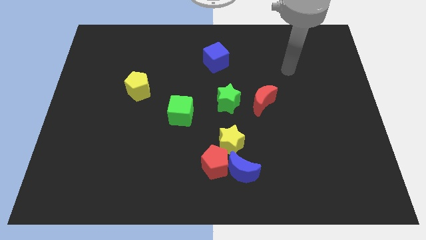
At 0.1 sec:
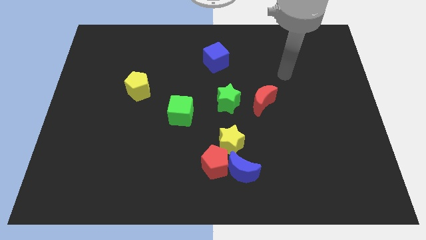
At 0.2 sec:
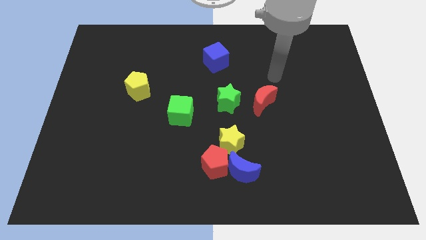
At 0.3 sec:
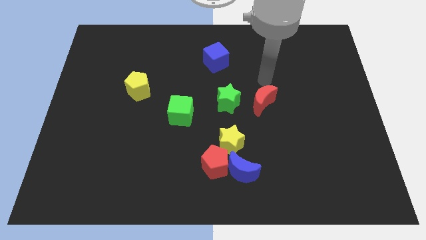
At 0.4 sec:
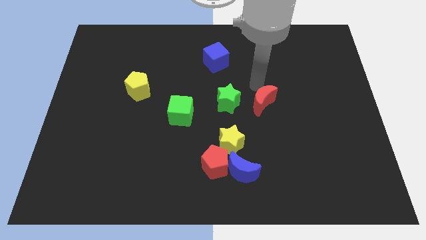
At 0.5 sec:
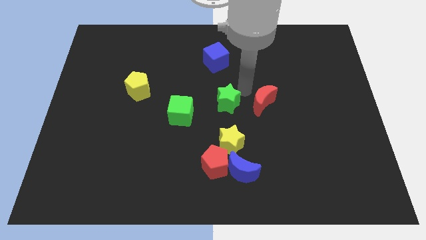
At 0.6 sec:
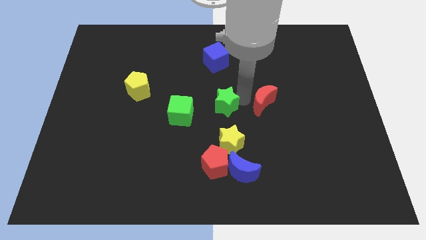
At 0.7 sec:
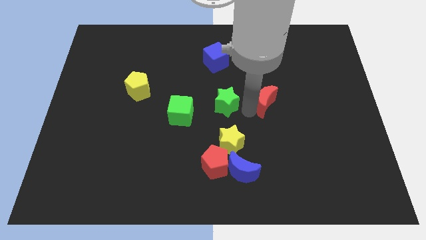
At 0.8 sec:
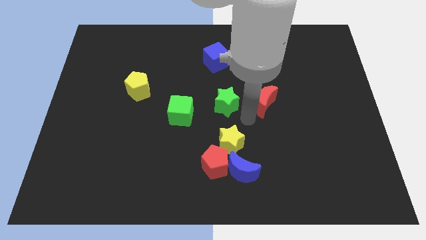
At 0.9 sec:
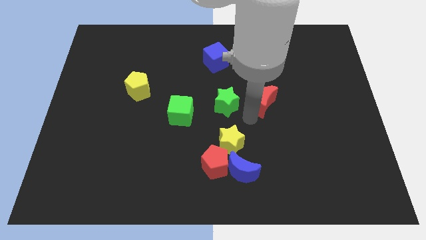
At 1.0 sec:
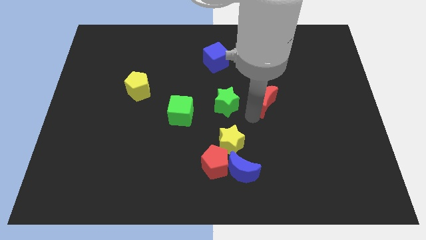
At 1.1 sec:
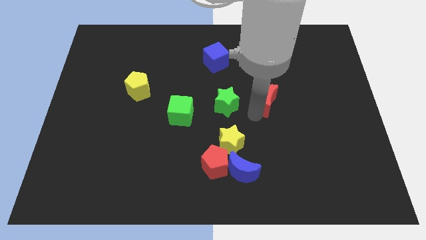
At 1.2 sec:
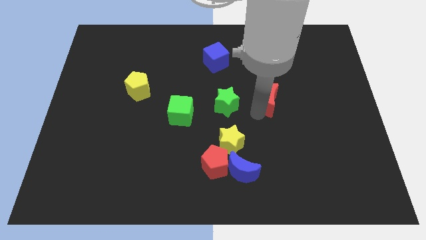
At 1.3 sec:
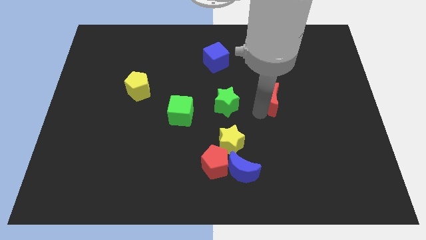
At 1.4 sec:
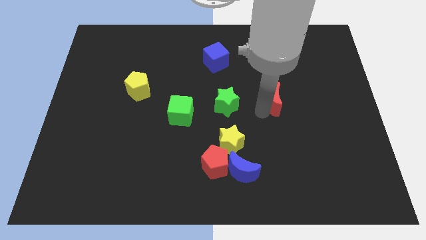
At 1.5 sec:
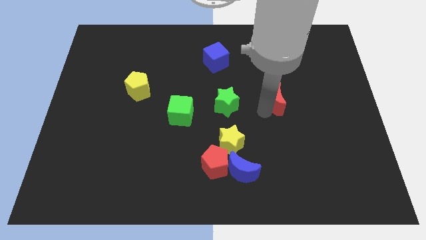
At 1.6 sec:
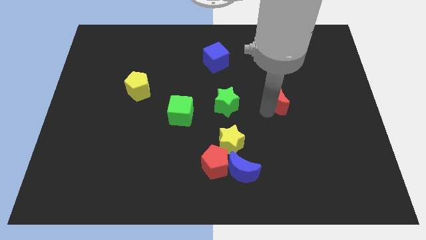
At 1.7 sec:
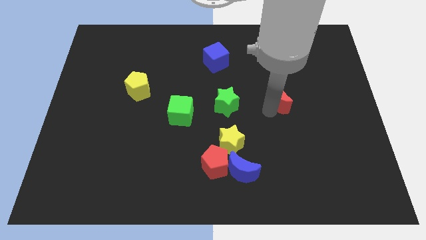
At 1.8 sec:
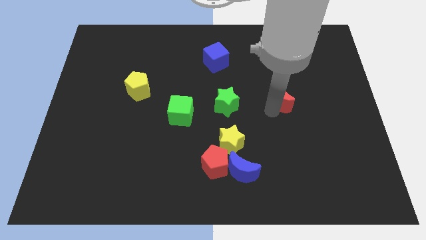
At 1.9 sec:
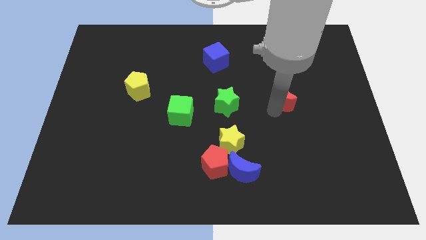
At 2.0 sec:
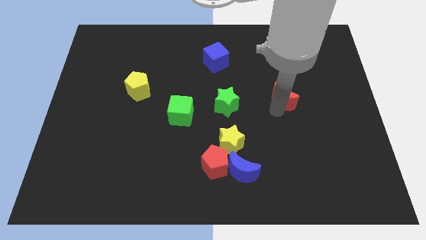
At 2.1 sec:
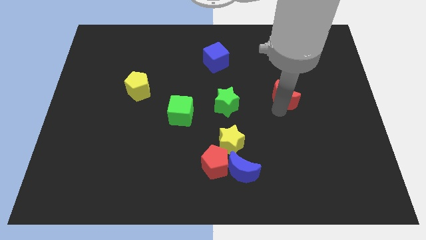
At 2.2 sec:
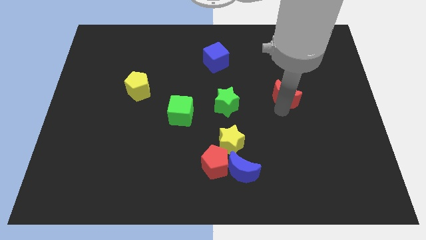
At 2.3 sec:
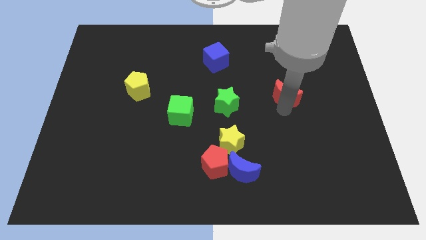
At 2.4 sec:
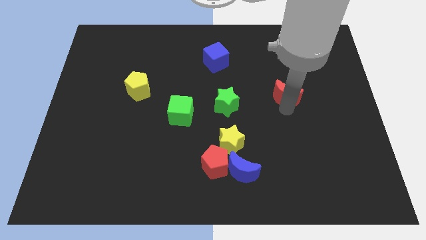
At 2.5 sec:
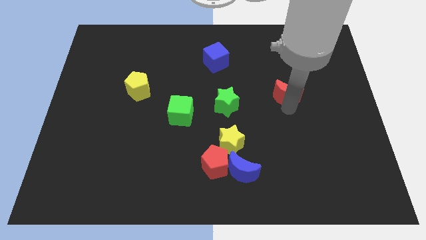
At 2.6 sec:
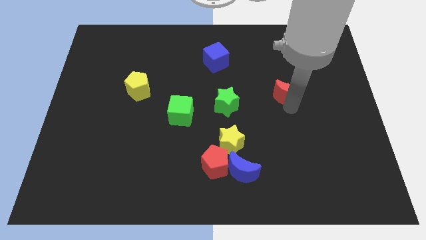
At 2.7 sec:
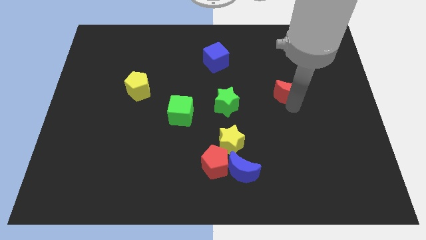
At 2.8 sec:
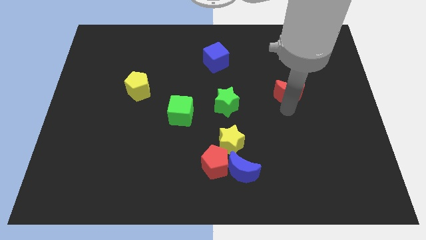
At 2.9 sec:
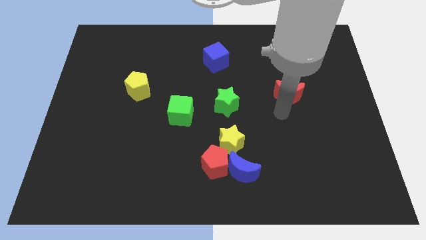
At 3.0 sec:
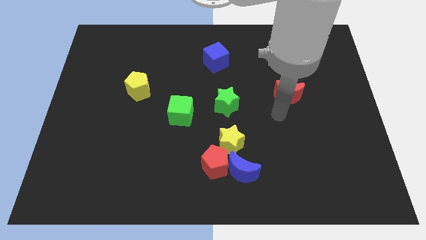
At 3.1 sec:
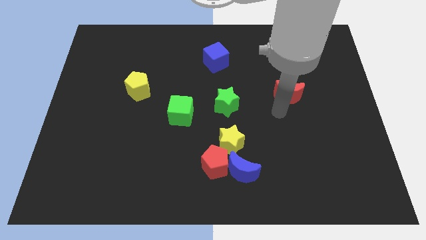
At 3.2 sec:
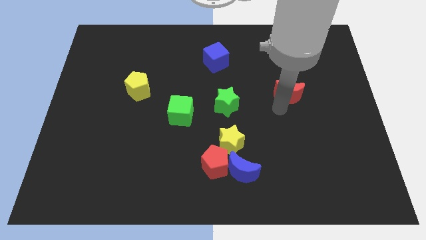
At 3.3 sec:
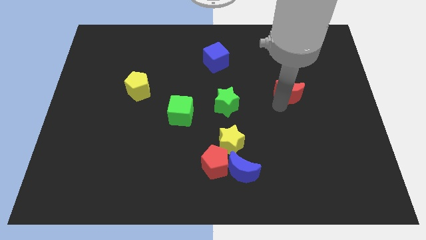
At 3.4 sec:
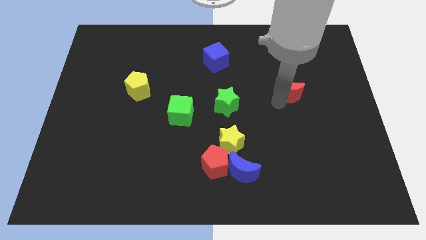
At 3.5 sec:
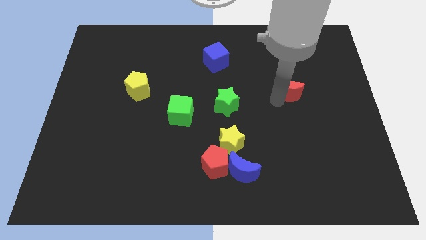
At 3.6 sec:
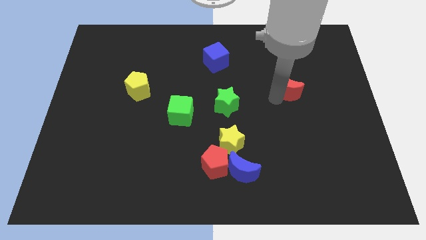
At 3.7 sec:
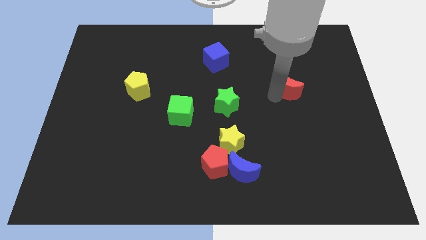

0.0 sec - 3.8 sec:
push the red moon a little bit diagonally up and right

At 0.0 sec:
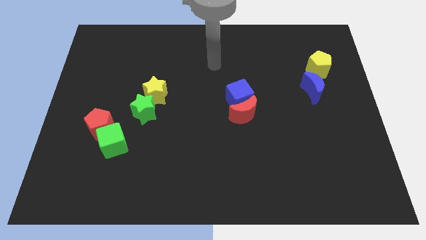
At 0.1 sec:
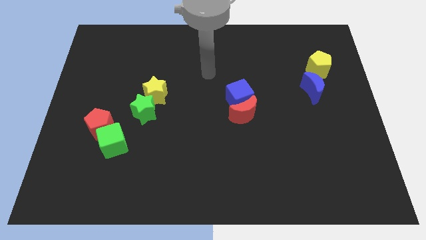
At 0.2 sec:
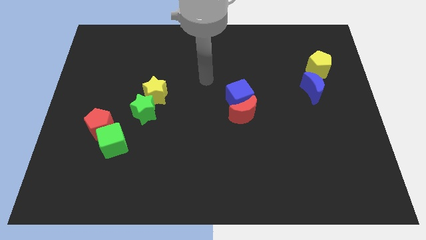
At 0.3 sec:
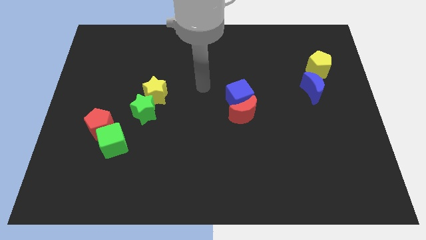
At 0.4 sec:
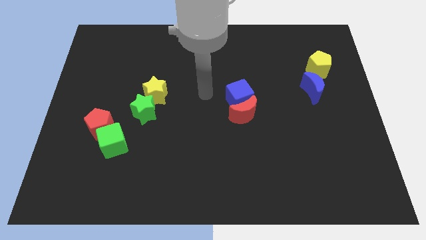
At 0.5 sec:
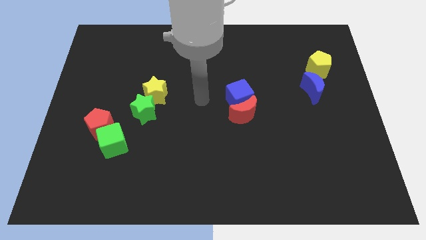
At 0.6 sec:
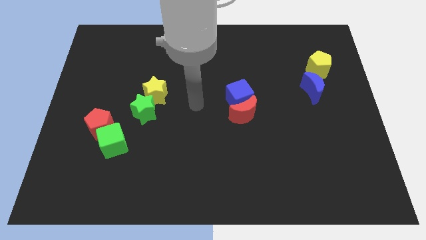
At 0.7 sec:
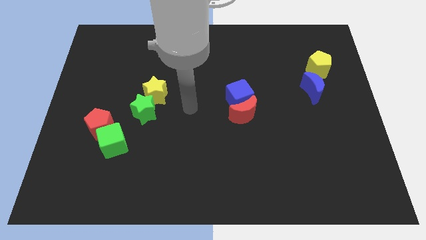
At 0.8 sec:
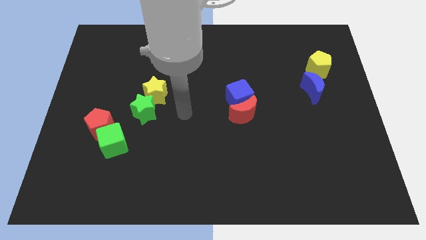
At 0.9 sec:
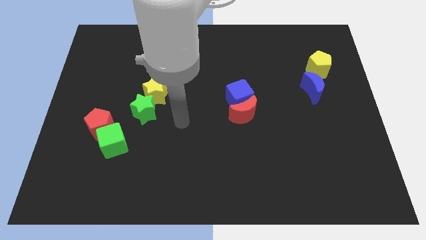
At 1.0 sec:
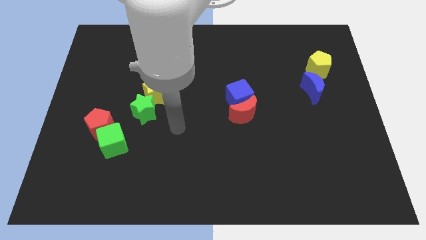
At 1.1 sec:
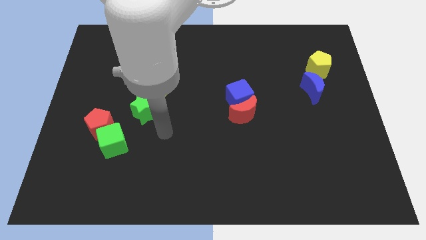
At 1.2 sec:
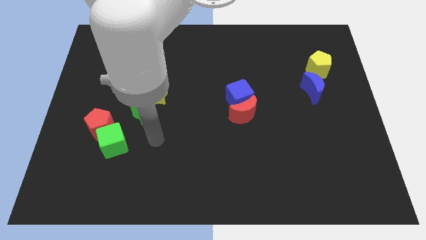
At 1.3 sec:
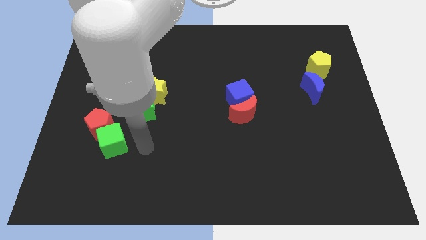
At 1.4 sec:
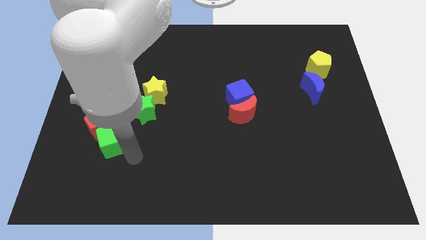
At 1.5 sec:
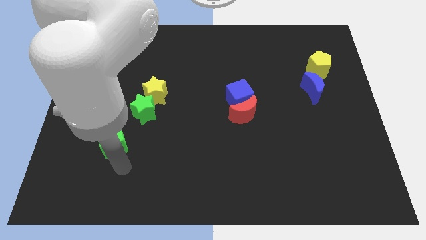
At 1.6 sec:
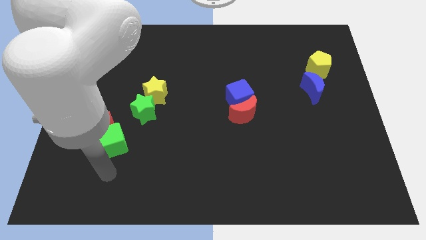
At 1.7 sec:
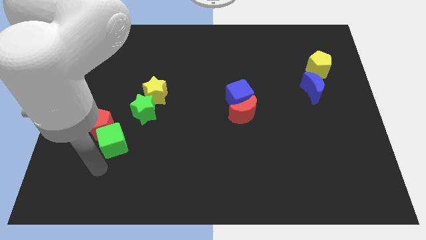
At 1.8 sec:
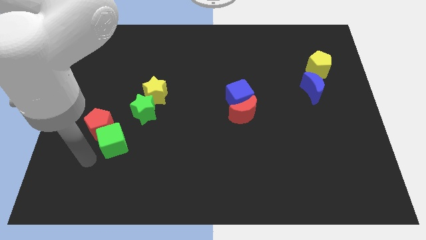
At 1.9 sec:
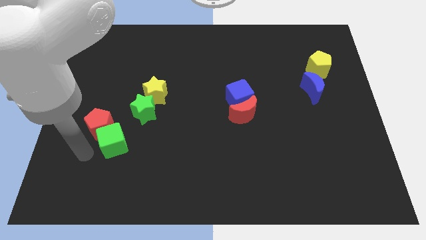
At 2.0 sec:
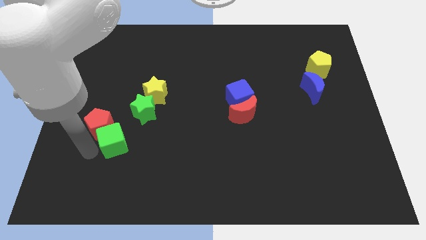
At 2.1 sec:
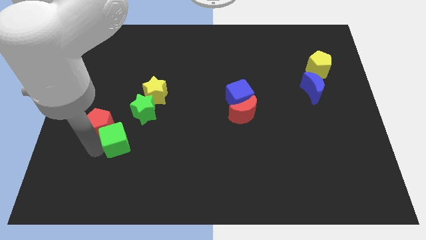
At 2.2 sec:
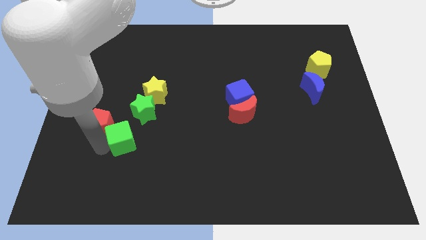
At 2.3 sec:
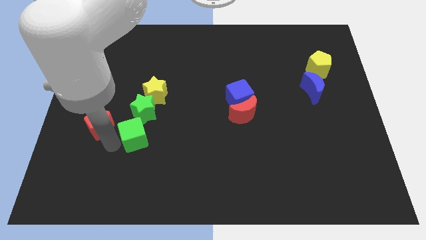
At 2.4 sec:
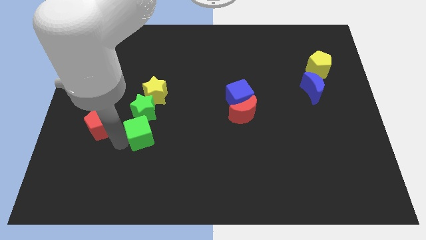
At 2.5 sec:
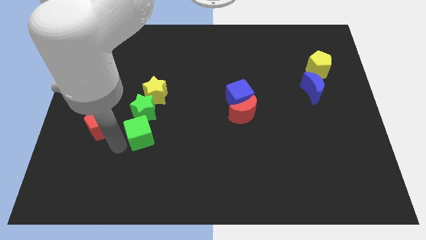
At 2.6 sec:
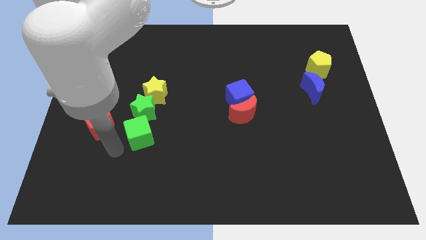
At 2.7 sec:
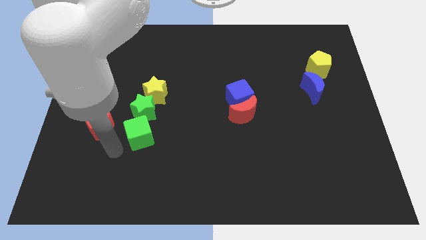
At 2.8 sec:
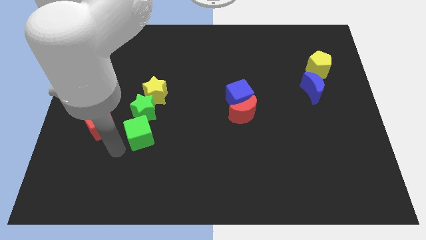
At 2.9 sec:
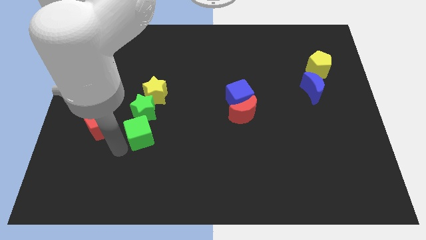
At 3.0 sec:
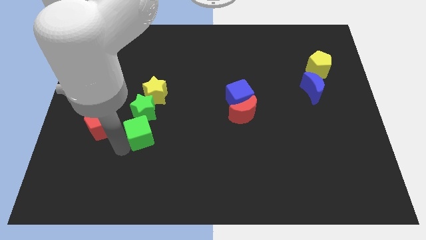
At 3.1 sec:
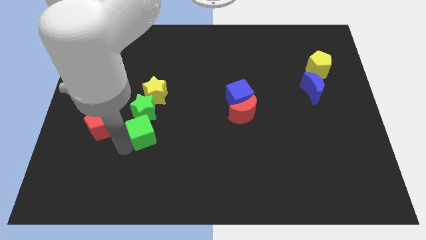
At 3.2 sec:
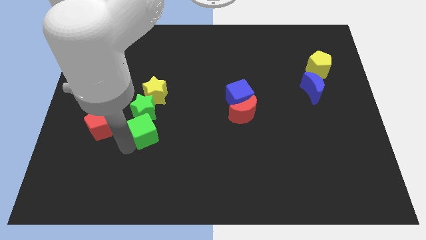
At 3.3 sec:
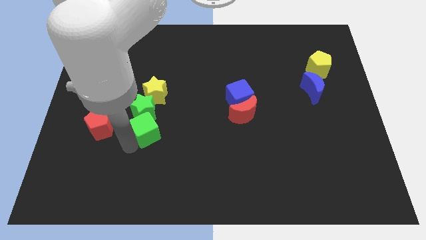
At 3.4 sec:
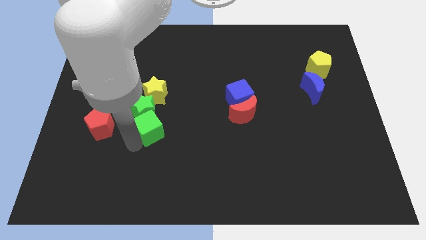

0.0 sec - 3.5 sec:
push the green cube upwards and right diagonally slightly

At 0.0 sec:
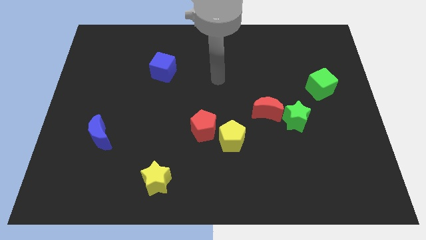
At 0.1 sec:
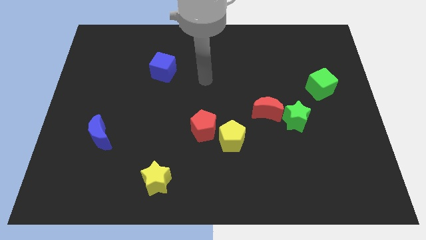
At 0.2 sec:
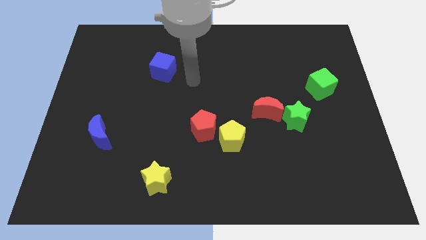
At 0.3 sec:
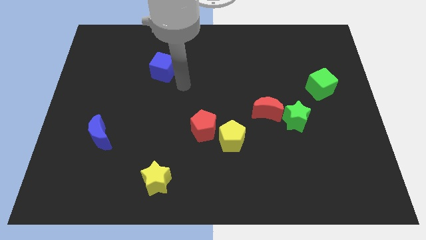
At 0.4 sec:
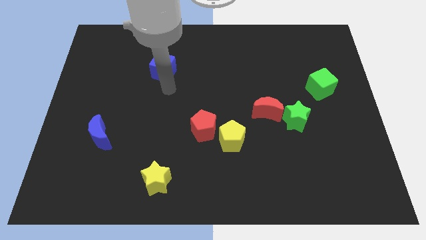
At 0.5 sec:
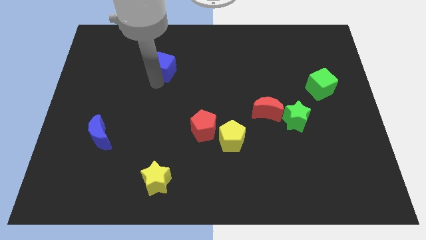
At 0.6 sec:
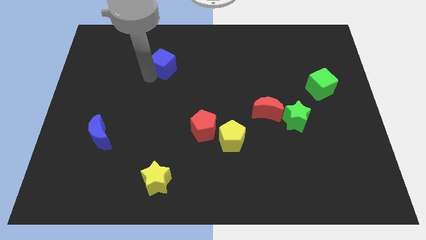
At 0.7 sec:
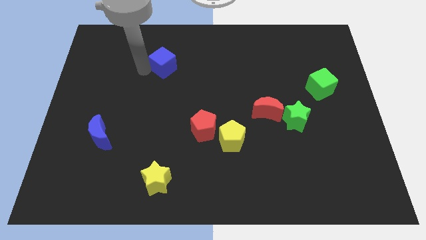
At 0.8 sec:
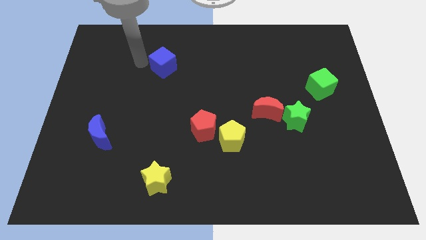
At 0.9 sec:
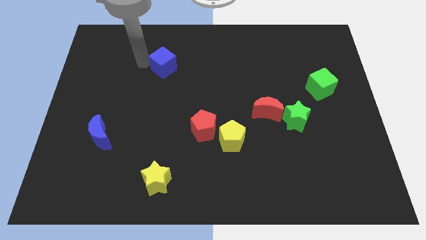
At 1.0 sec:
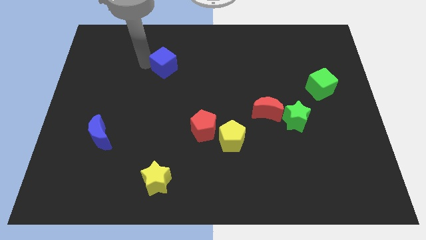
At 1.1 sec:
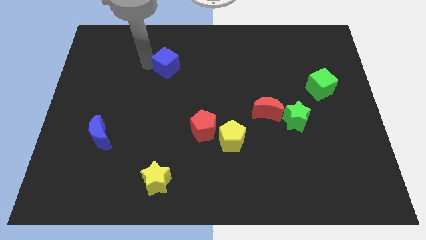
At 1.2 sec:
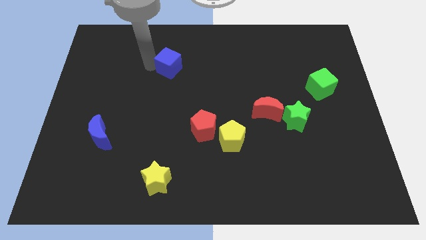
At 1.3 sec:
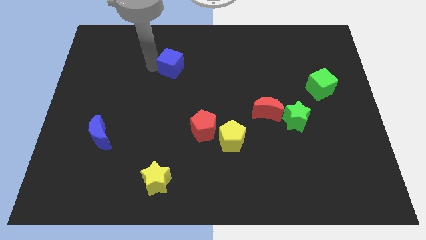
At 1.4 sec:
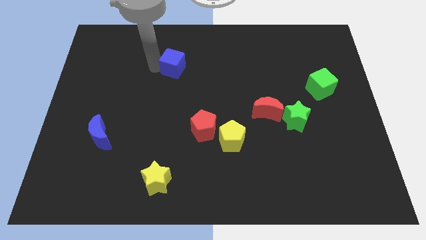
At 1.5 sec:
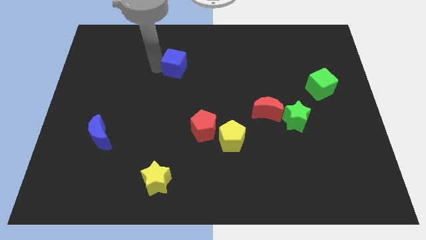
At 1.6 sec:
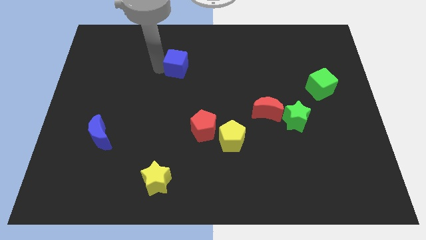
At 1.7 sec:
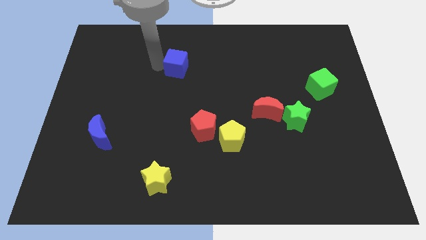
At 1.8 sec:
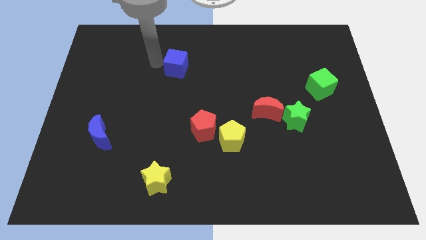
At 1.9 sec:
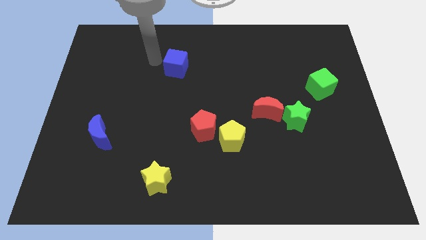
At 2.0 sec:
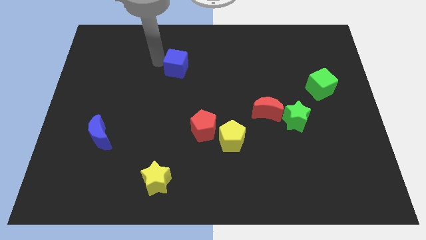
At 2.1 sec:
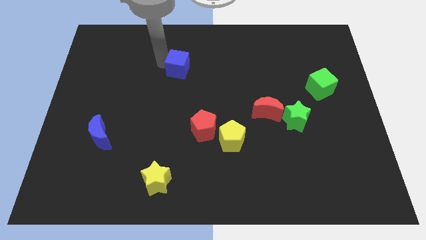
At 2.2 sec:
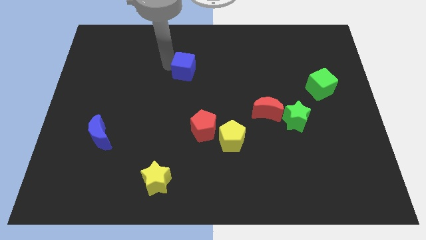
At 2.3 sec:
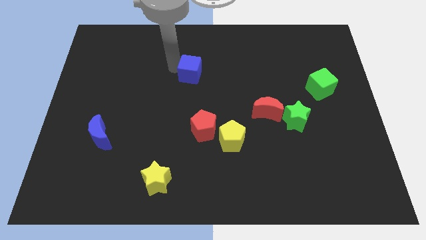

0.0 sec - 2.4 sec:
slightly slide the blue cube right
